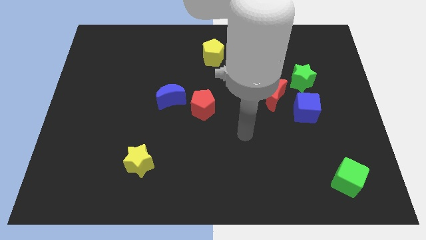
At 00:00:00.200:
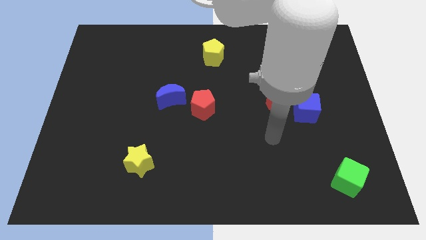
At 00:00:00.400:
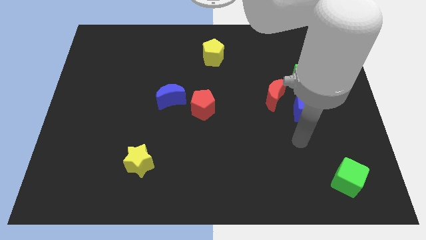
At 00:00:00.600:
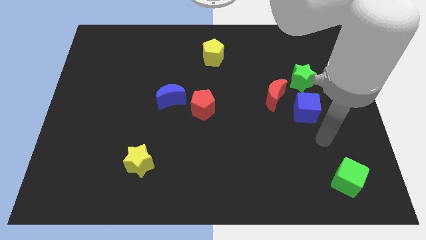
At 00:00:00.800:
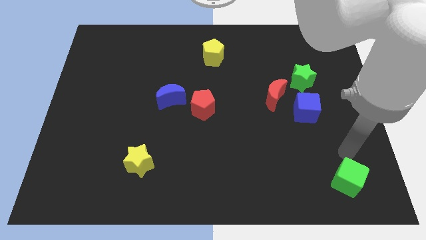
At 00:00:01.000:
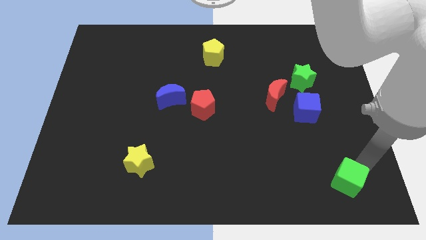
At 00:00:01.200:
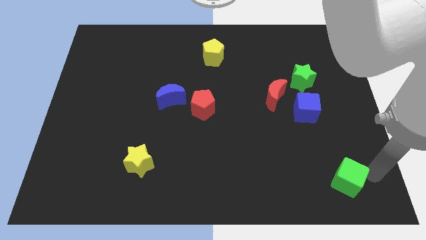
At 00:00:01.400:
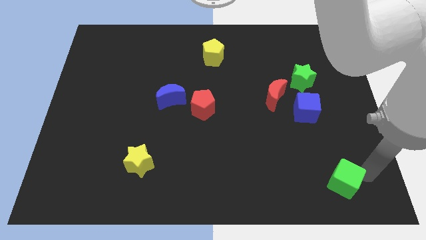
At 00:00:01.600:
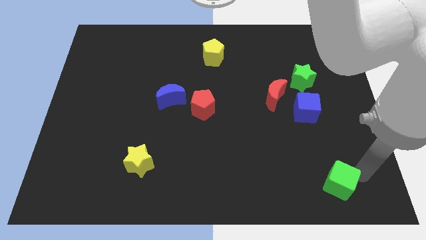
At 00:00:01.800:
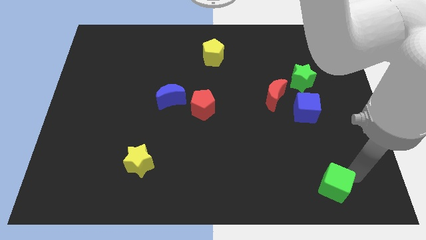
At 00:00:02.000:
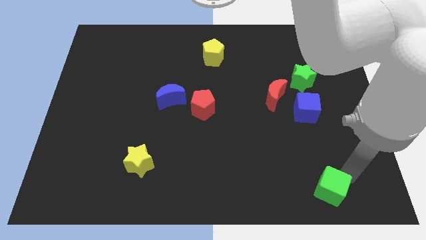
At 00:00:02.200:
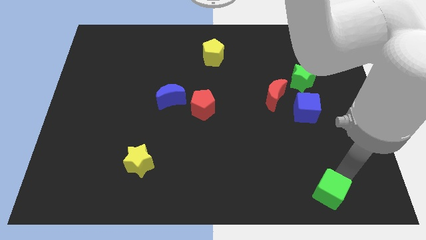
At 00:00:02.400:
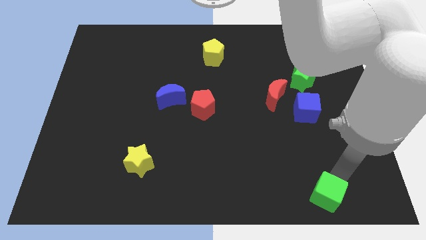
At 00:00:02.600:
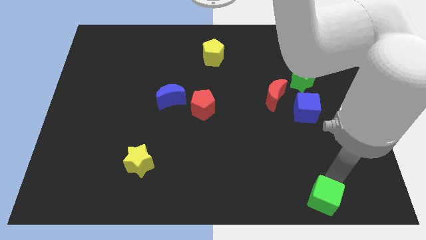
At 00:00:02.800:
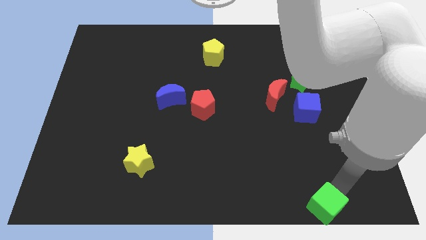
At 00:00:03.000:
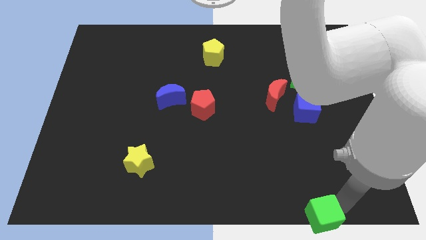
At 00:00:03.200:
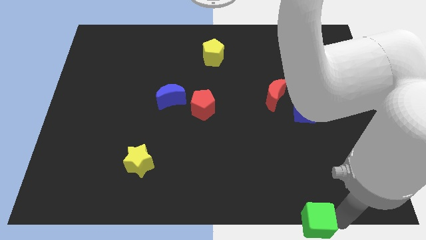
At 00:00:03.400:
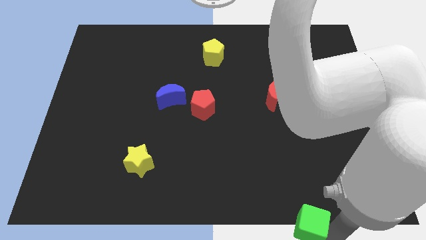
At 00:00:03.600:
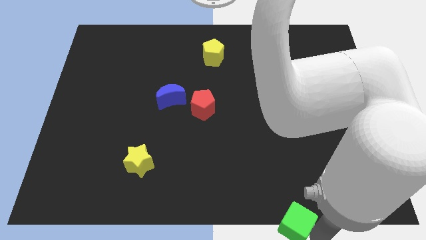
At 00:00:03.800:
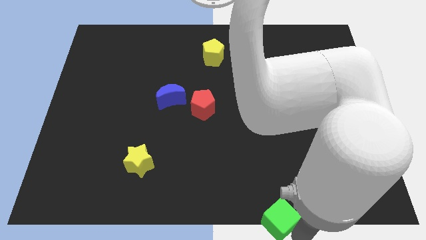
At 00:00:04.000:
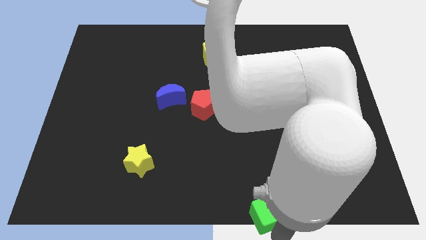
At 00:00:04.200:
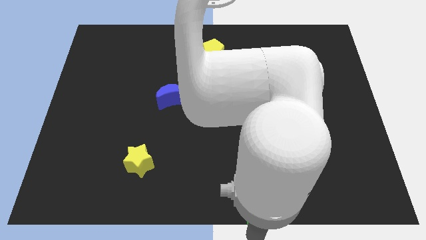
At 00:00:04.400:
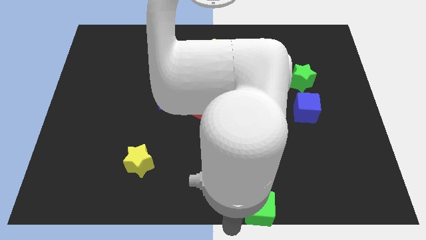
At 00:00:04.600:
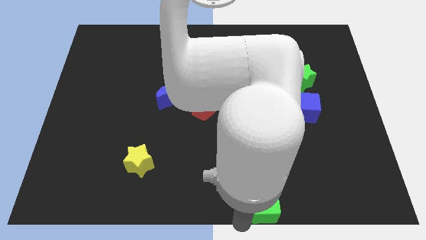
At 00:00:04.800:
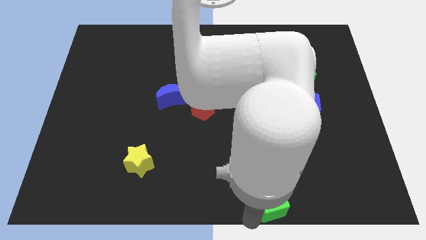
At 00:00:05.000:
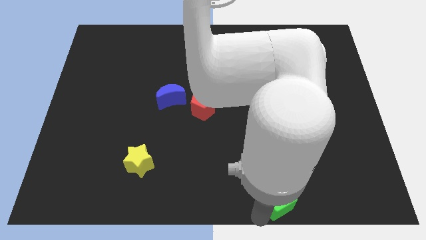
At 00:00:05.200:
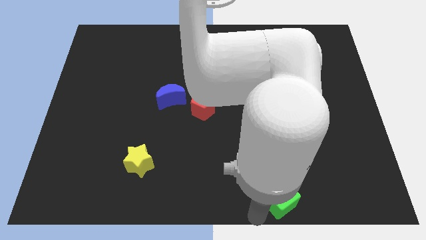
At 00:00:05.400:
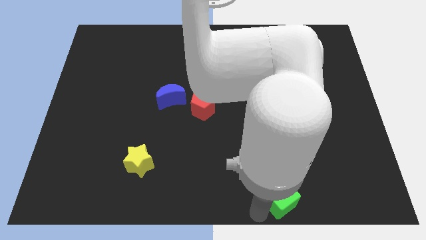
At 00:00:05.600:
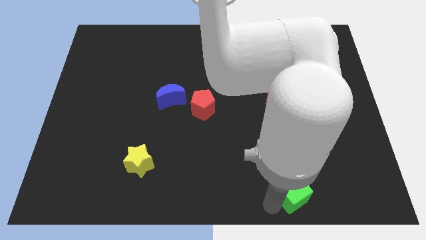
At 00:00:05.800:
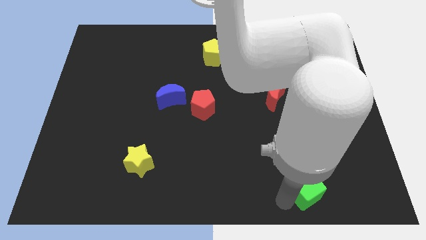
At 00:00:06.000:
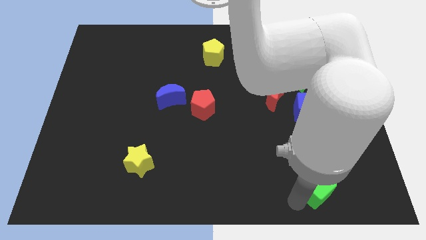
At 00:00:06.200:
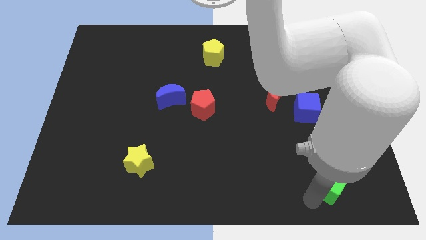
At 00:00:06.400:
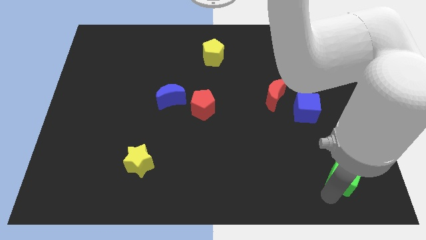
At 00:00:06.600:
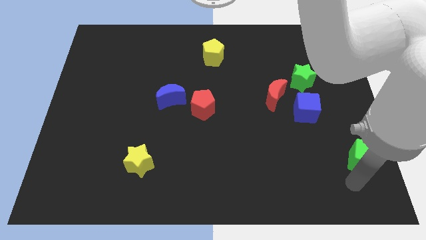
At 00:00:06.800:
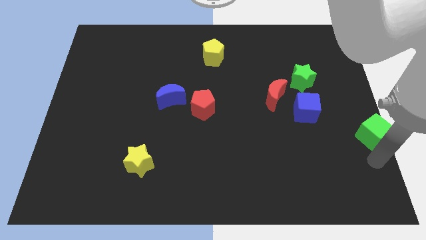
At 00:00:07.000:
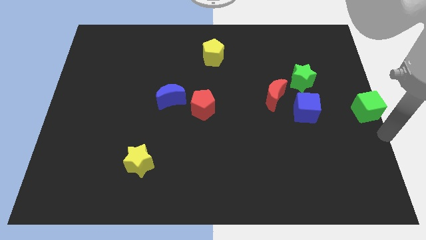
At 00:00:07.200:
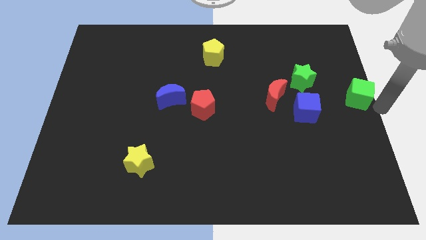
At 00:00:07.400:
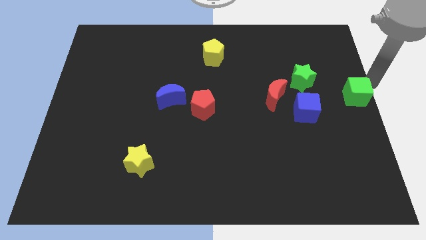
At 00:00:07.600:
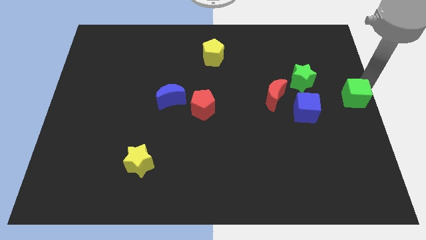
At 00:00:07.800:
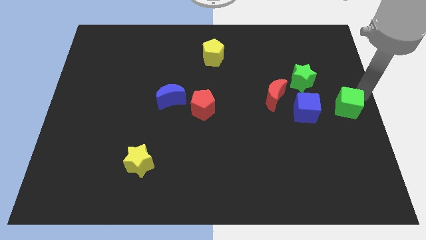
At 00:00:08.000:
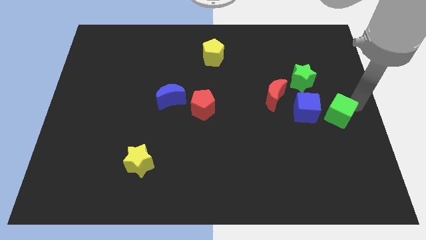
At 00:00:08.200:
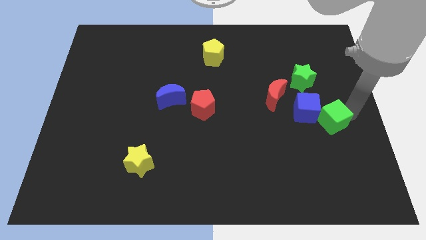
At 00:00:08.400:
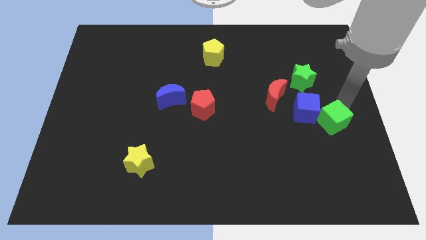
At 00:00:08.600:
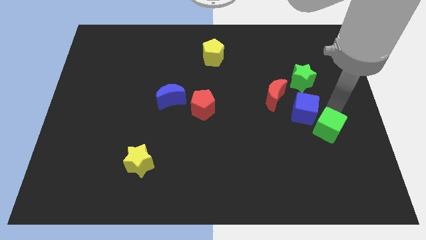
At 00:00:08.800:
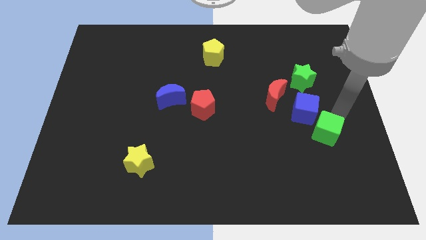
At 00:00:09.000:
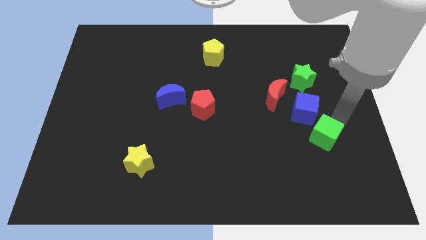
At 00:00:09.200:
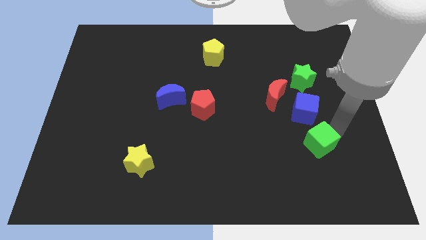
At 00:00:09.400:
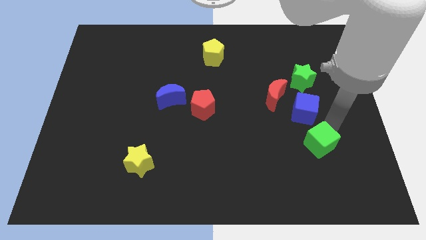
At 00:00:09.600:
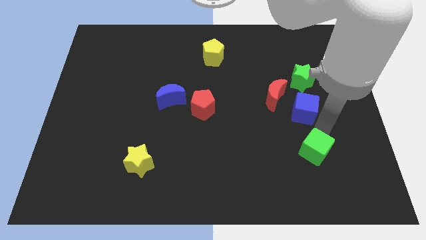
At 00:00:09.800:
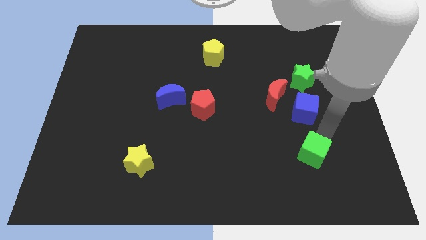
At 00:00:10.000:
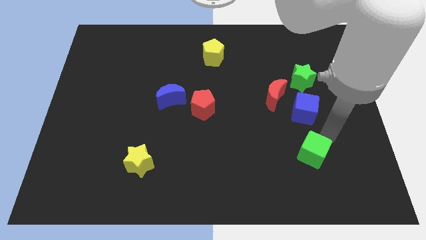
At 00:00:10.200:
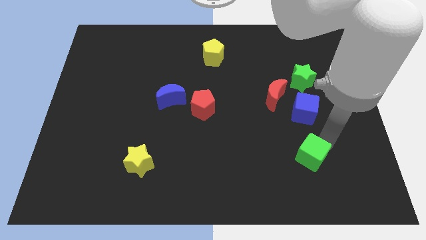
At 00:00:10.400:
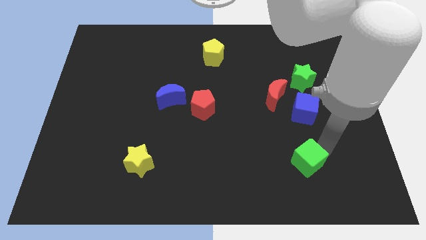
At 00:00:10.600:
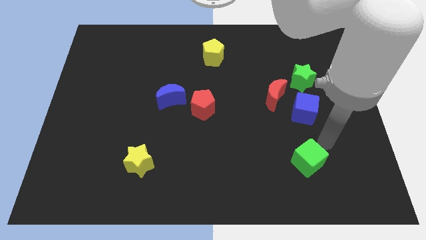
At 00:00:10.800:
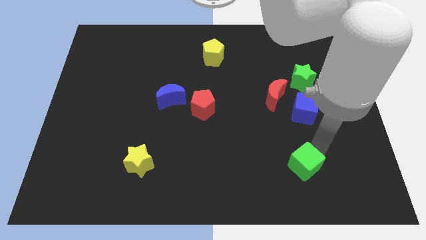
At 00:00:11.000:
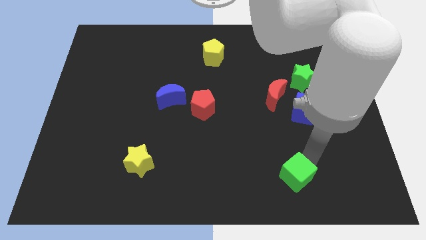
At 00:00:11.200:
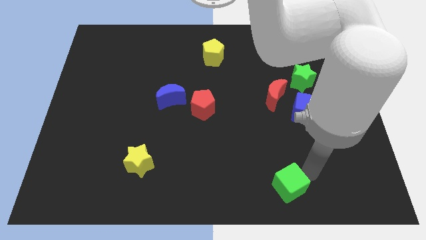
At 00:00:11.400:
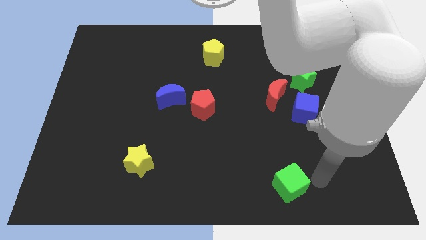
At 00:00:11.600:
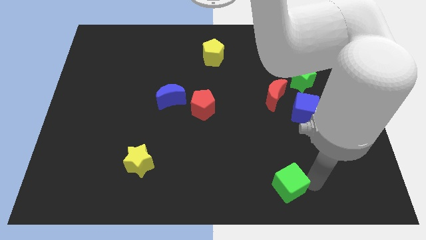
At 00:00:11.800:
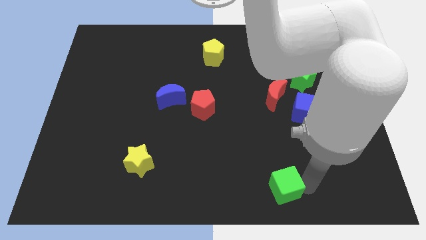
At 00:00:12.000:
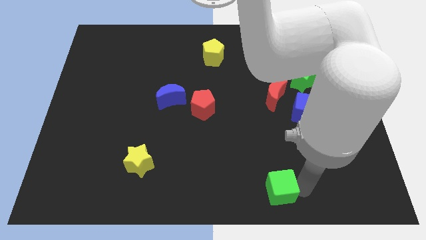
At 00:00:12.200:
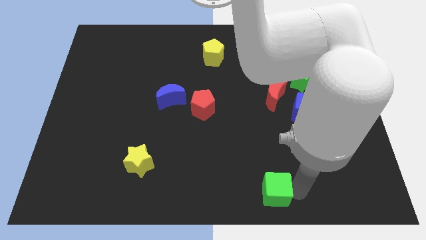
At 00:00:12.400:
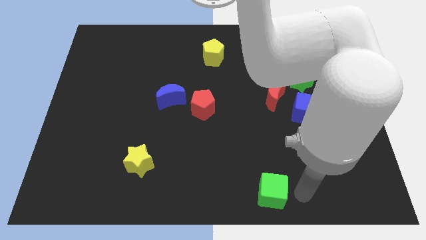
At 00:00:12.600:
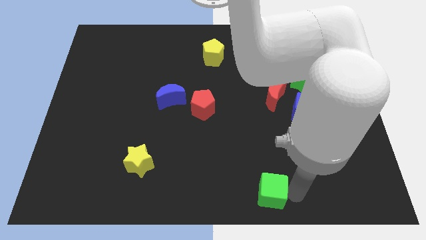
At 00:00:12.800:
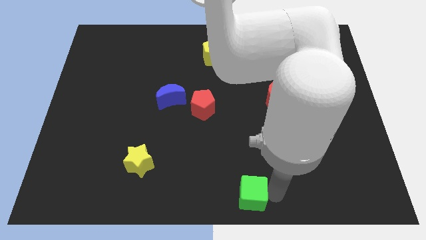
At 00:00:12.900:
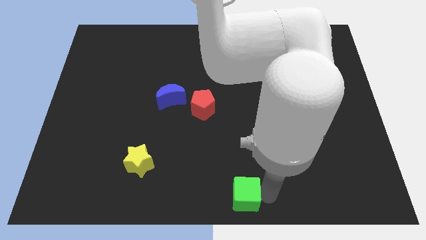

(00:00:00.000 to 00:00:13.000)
push the green cube to the left

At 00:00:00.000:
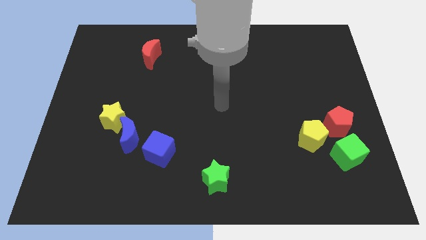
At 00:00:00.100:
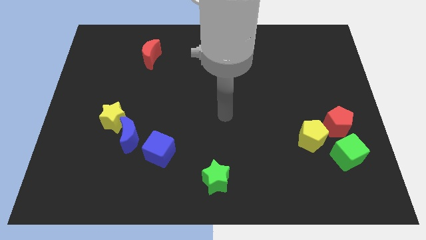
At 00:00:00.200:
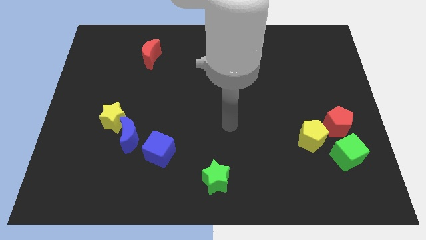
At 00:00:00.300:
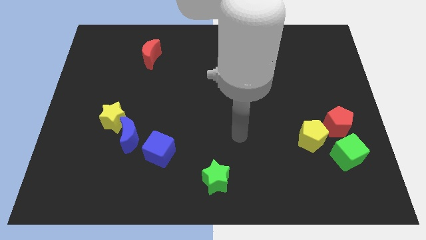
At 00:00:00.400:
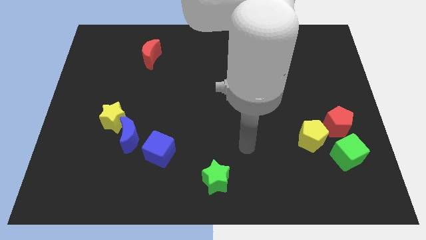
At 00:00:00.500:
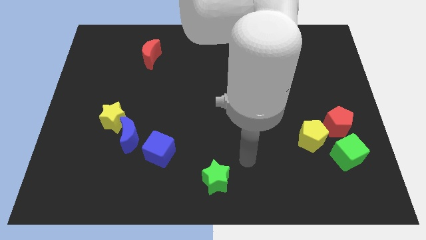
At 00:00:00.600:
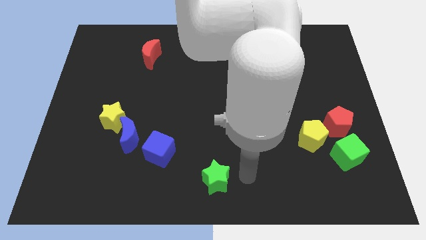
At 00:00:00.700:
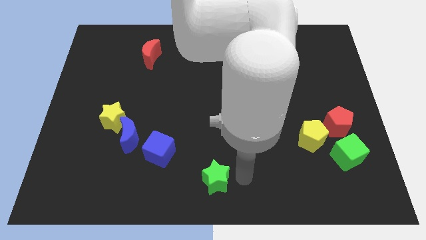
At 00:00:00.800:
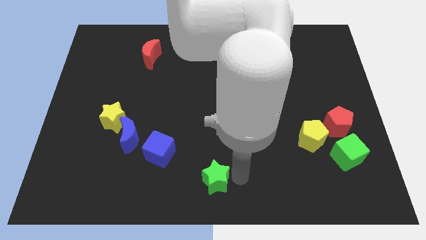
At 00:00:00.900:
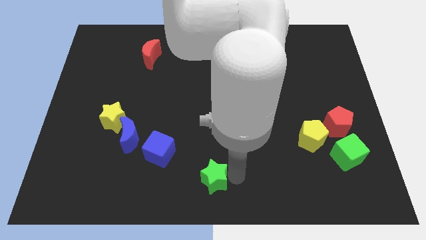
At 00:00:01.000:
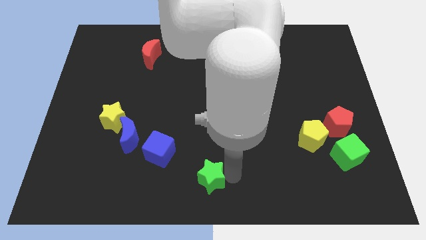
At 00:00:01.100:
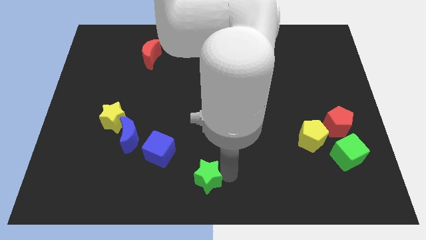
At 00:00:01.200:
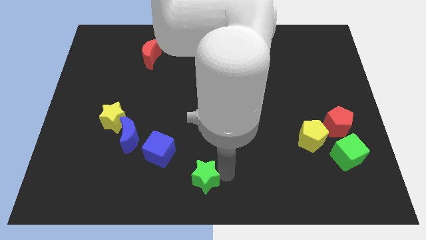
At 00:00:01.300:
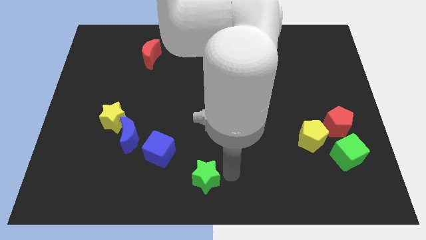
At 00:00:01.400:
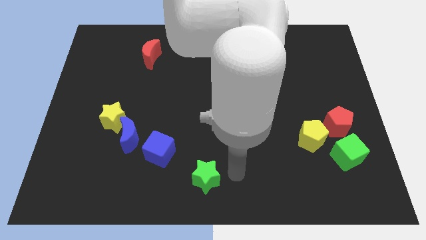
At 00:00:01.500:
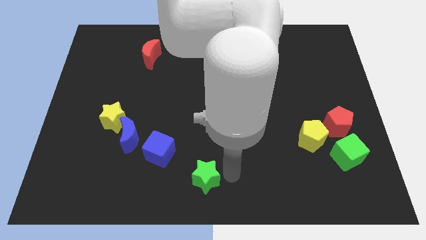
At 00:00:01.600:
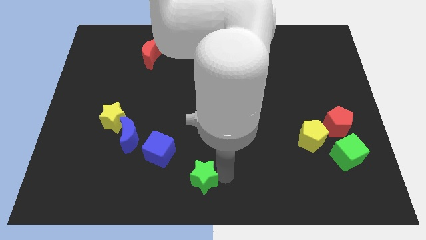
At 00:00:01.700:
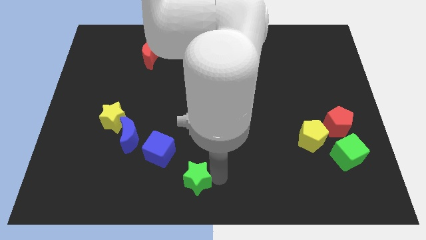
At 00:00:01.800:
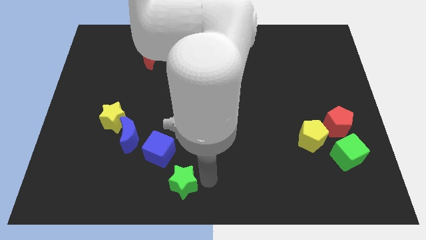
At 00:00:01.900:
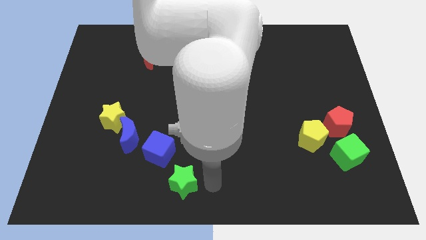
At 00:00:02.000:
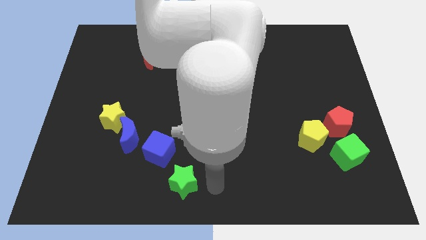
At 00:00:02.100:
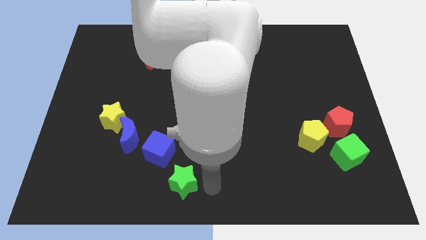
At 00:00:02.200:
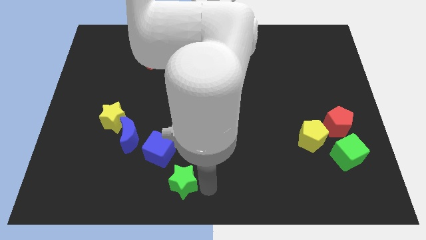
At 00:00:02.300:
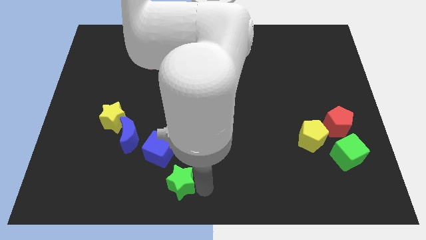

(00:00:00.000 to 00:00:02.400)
push the green star slightly left
